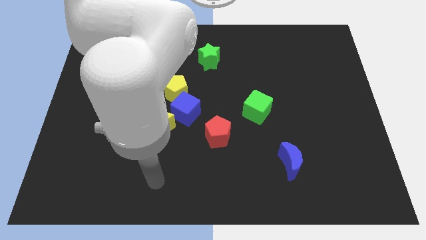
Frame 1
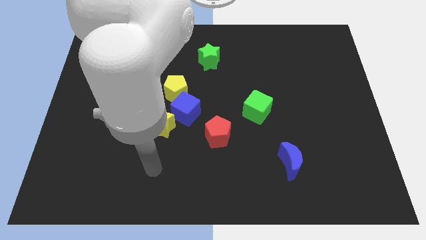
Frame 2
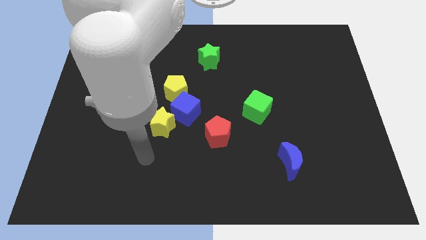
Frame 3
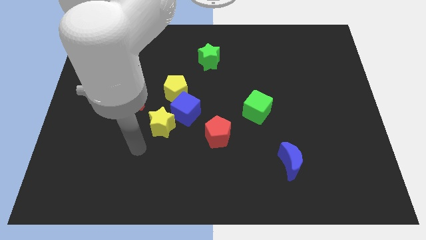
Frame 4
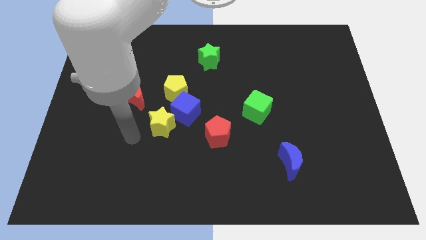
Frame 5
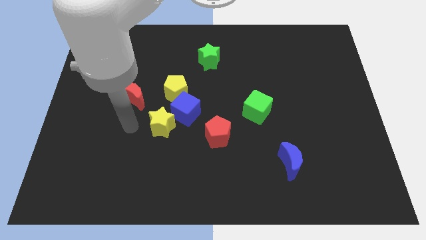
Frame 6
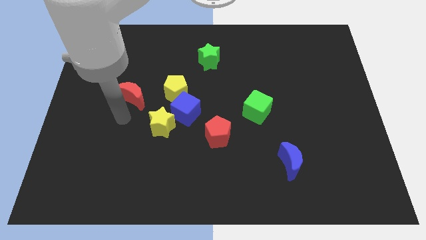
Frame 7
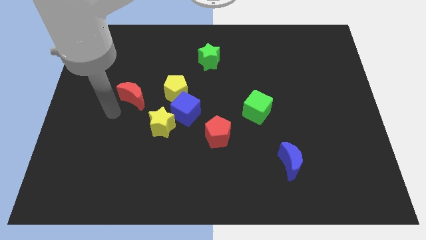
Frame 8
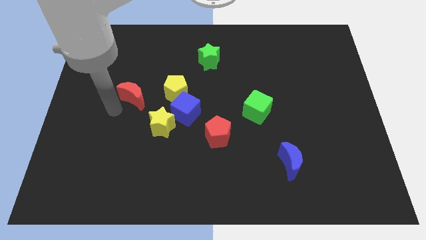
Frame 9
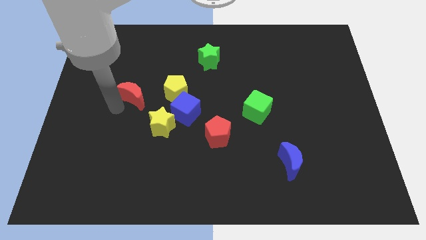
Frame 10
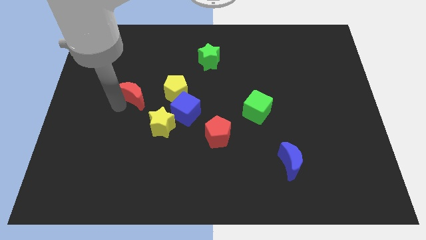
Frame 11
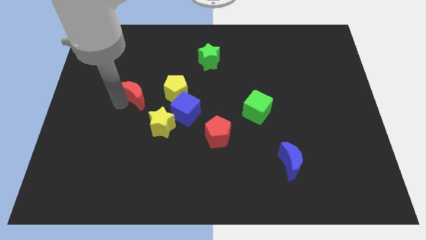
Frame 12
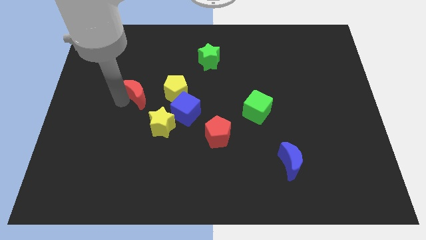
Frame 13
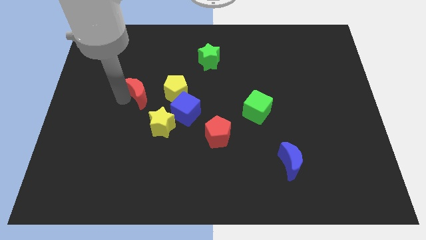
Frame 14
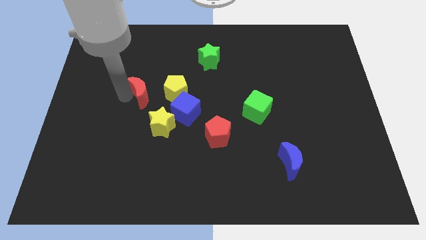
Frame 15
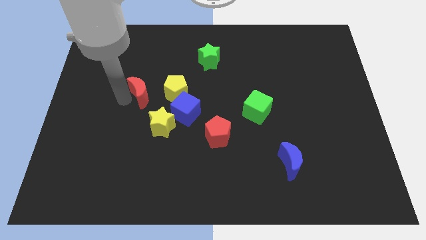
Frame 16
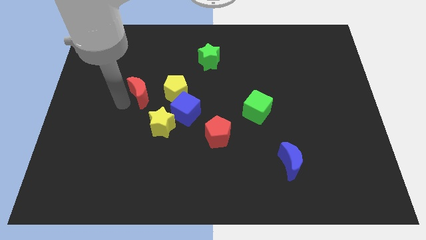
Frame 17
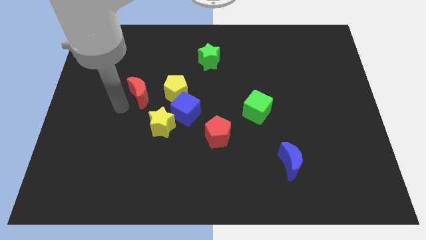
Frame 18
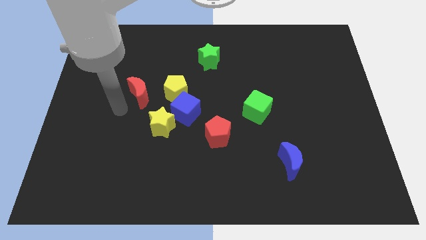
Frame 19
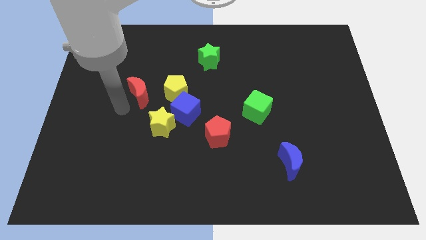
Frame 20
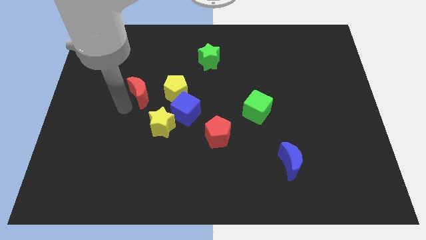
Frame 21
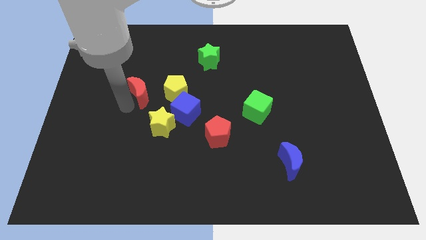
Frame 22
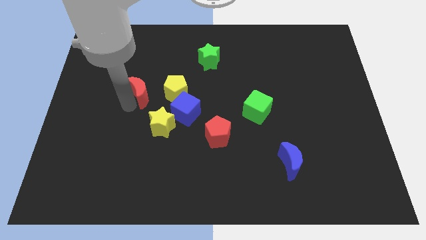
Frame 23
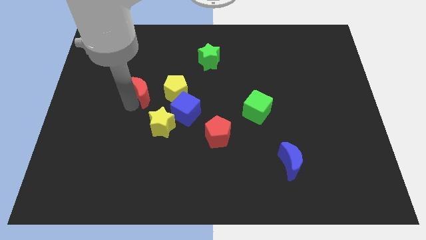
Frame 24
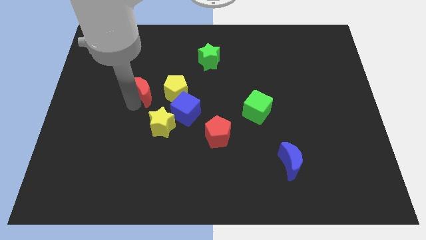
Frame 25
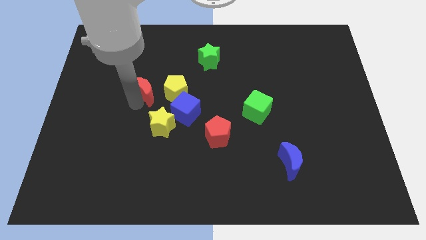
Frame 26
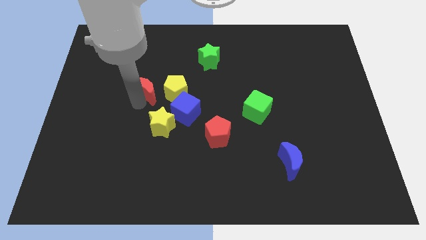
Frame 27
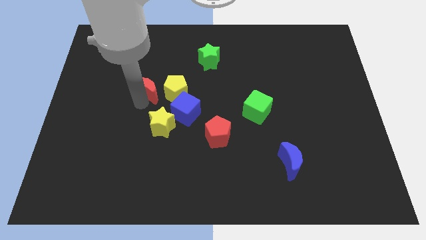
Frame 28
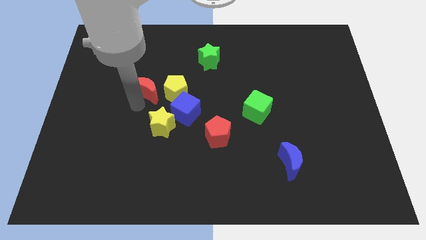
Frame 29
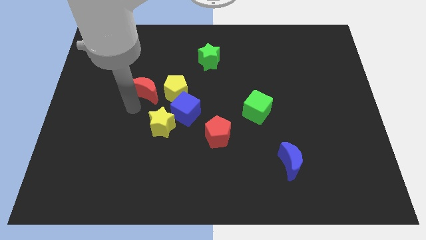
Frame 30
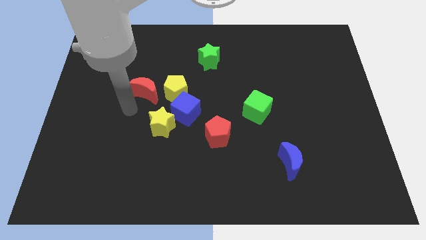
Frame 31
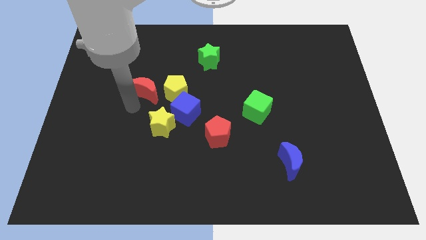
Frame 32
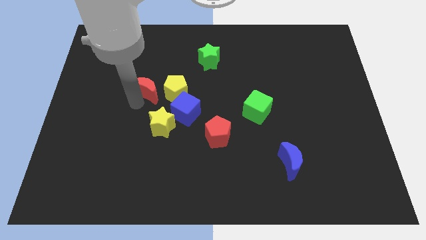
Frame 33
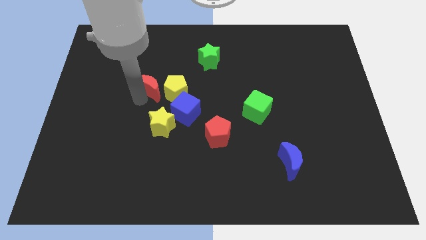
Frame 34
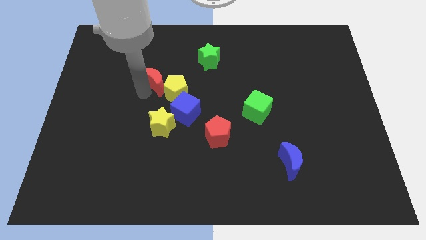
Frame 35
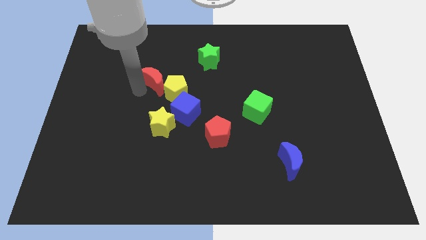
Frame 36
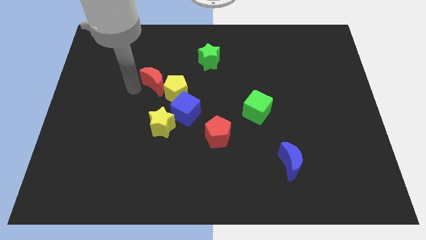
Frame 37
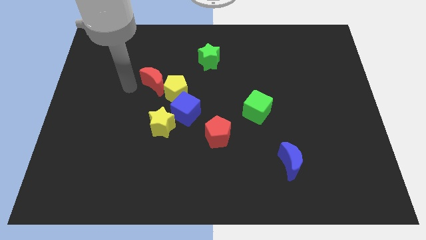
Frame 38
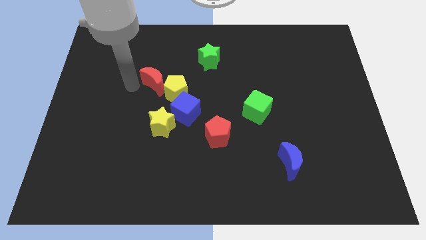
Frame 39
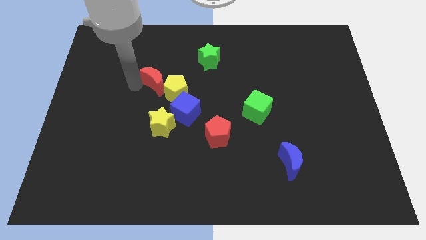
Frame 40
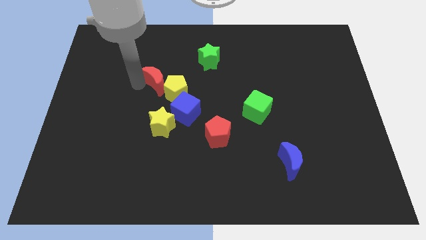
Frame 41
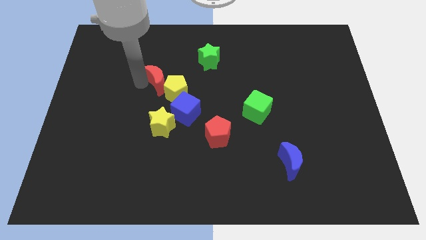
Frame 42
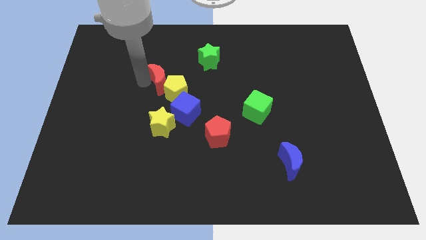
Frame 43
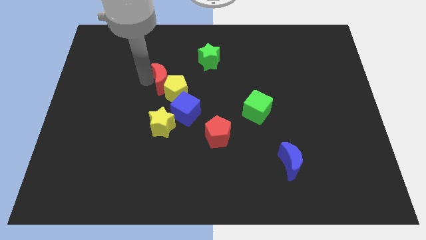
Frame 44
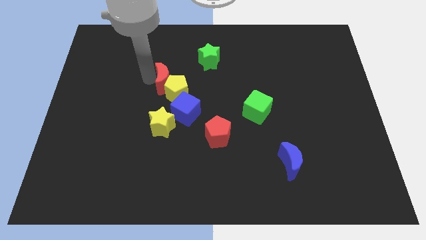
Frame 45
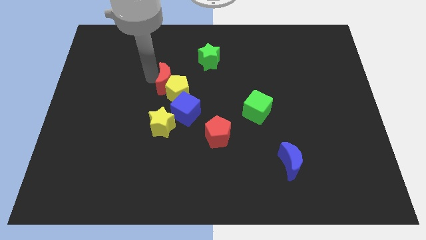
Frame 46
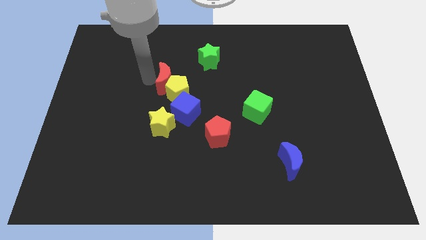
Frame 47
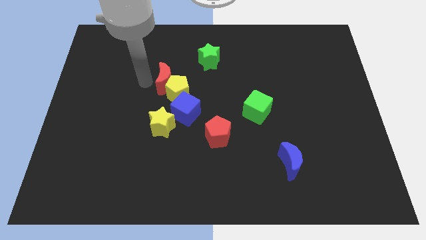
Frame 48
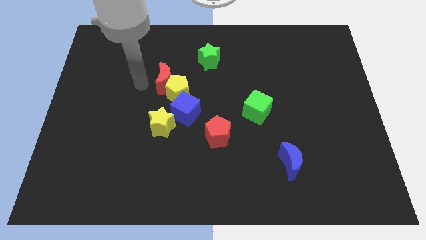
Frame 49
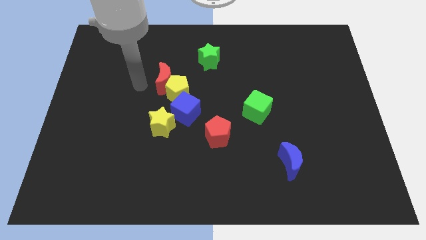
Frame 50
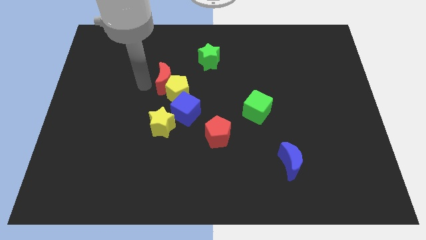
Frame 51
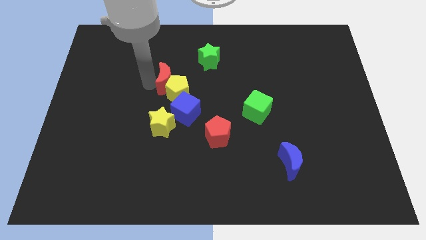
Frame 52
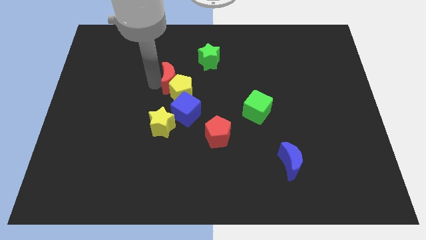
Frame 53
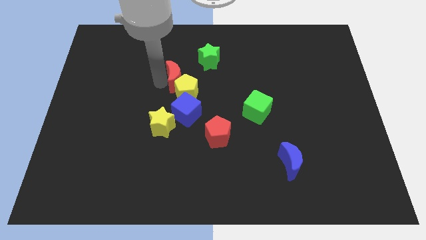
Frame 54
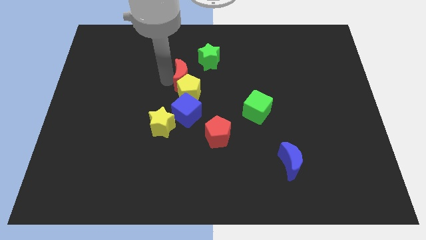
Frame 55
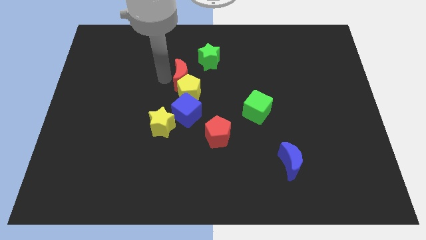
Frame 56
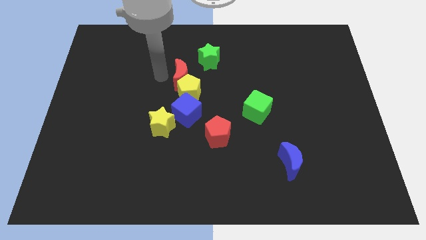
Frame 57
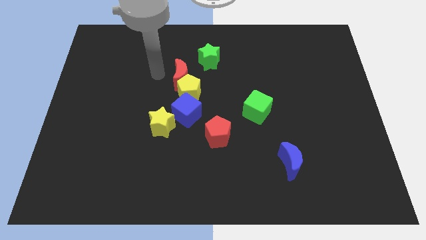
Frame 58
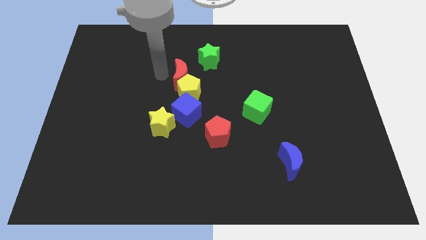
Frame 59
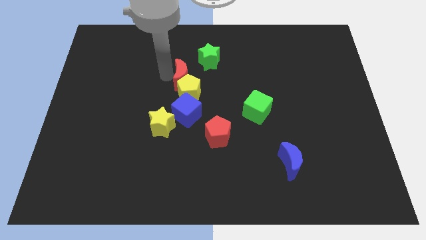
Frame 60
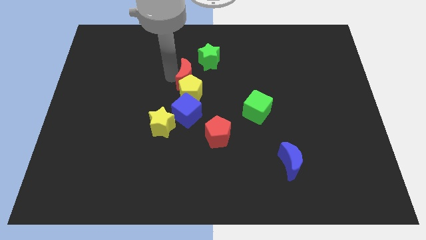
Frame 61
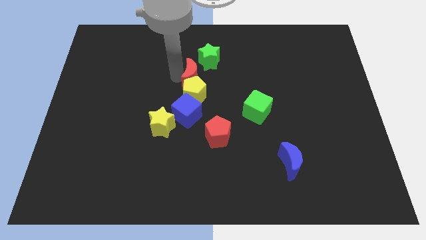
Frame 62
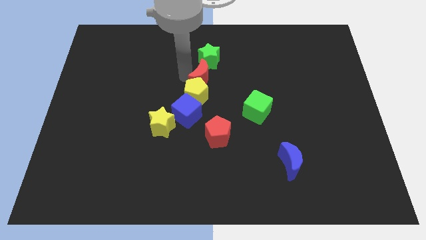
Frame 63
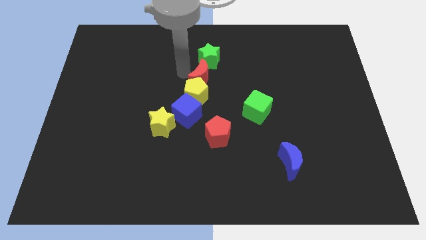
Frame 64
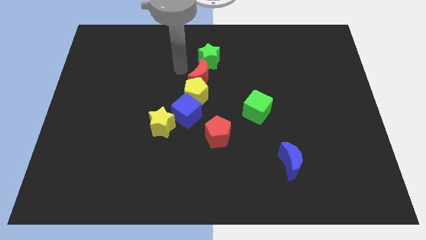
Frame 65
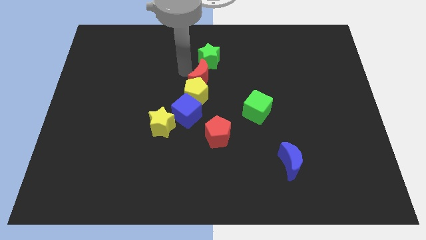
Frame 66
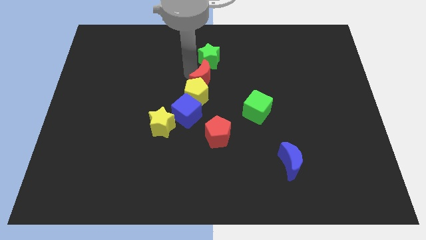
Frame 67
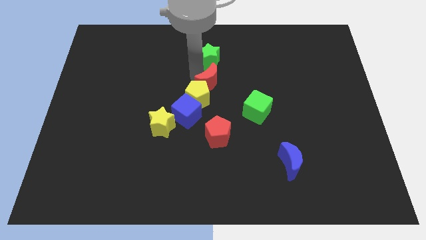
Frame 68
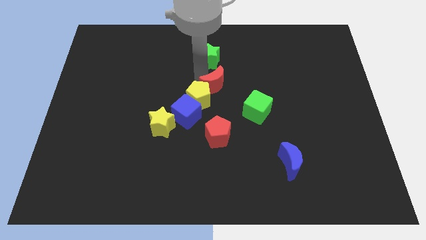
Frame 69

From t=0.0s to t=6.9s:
put the red moon to the top left side of the green cube
